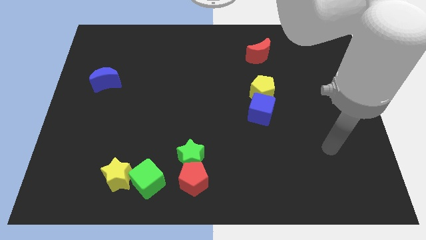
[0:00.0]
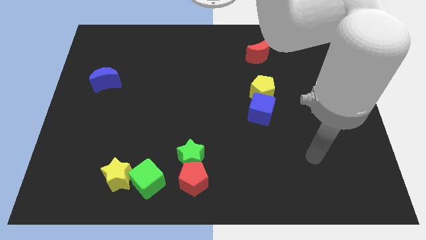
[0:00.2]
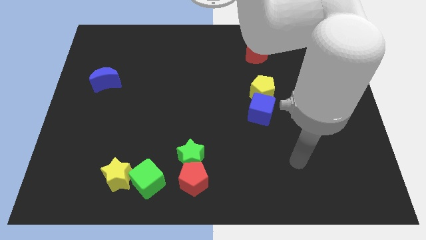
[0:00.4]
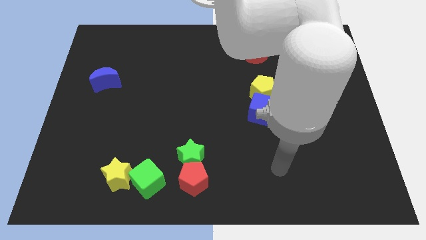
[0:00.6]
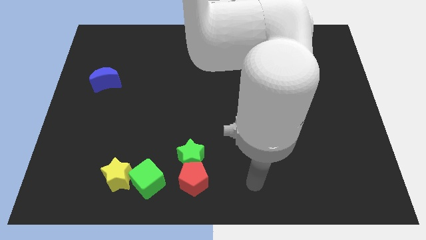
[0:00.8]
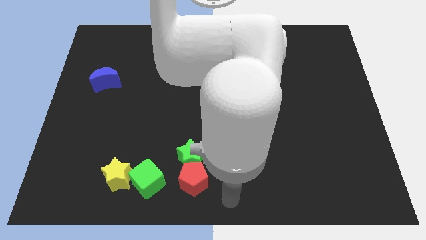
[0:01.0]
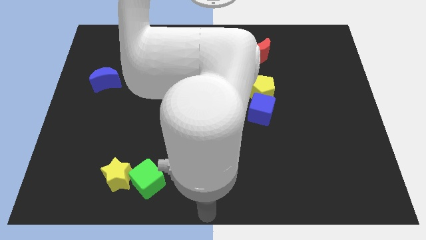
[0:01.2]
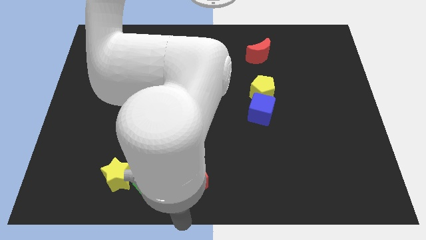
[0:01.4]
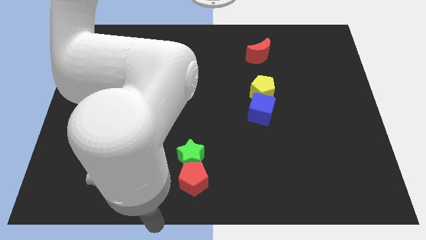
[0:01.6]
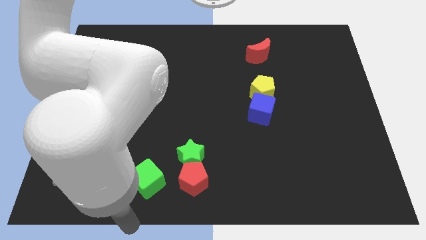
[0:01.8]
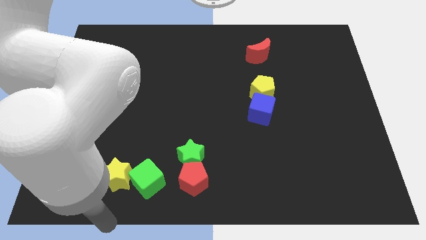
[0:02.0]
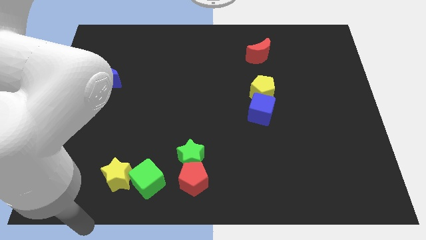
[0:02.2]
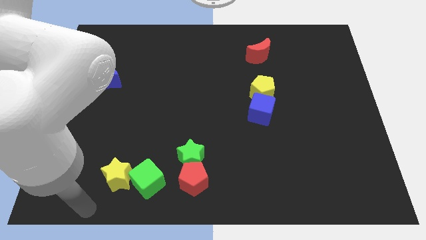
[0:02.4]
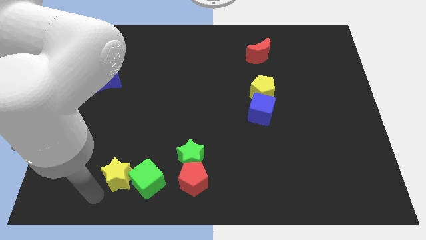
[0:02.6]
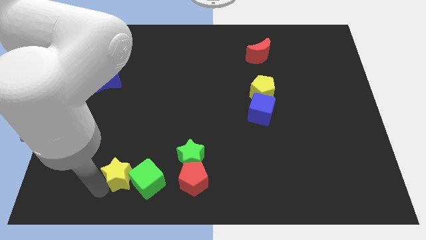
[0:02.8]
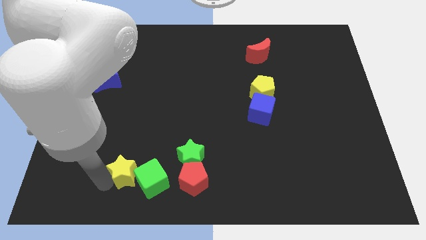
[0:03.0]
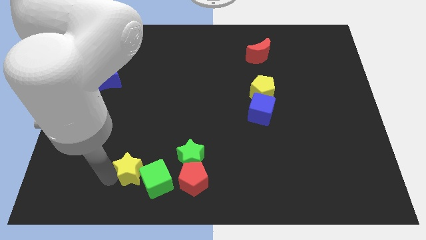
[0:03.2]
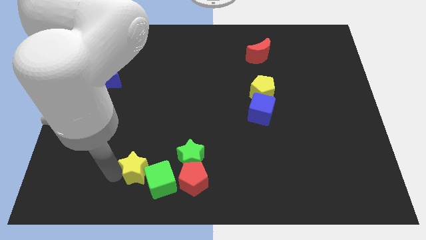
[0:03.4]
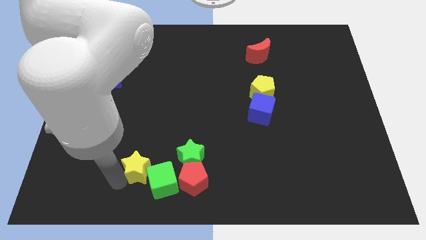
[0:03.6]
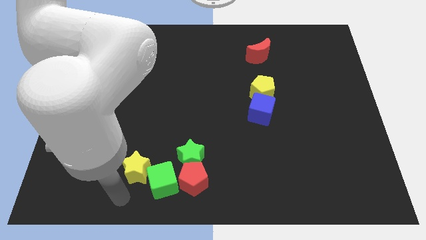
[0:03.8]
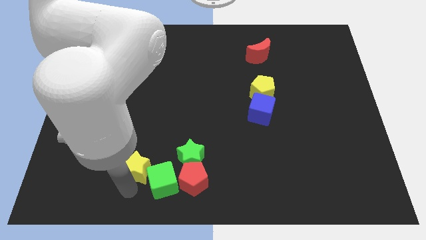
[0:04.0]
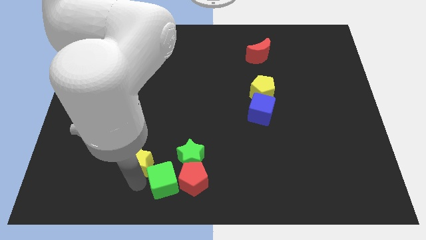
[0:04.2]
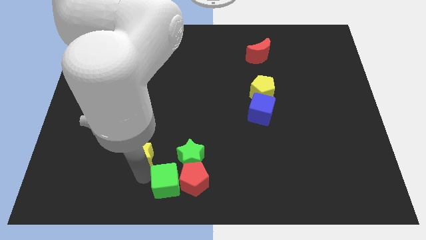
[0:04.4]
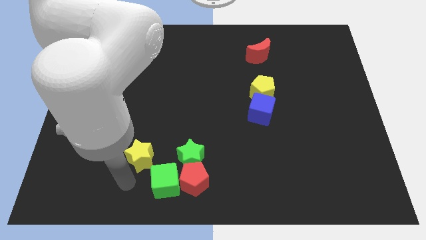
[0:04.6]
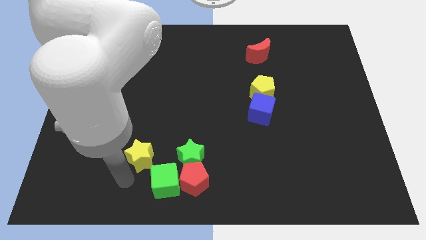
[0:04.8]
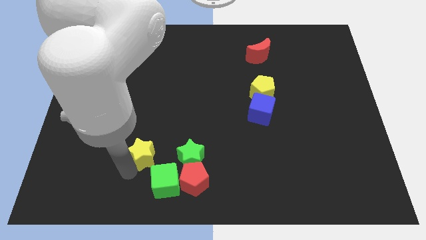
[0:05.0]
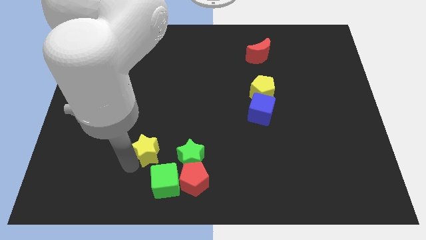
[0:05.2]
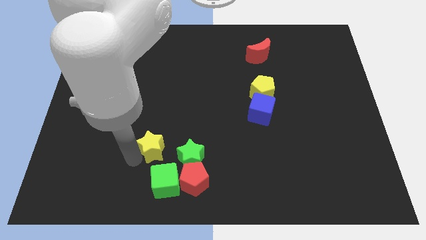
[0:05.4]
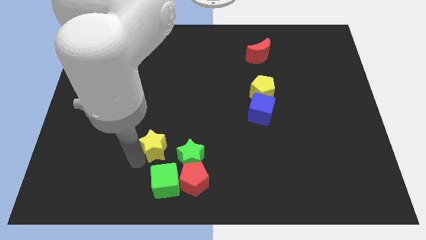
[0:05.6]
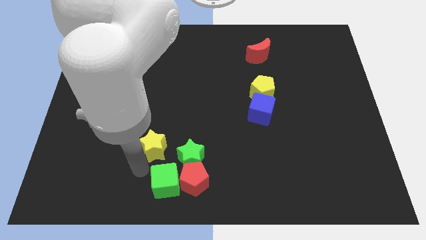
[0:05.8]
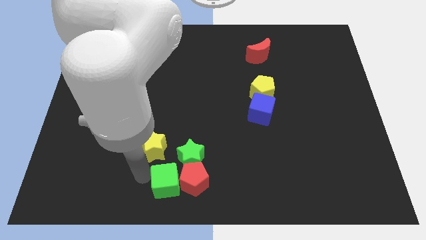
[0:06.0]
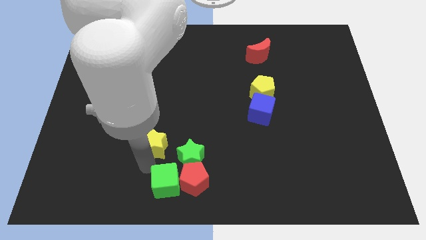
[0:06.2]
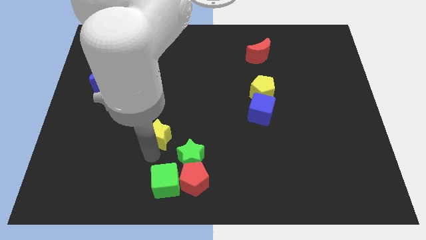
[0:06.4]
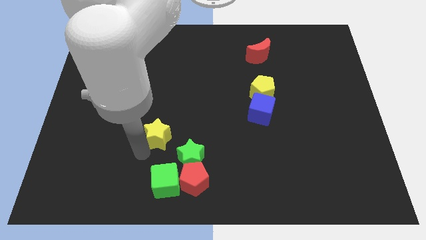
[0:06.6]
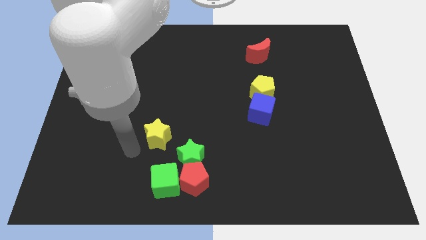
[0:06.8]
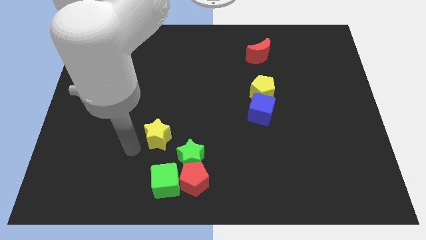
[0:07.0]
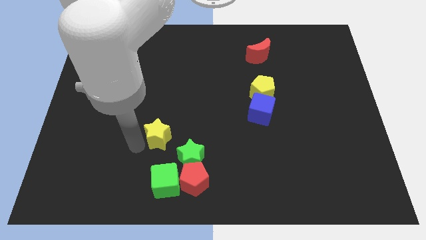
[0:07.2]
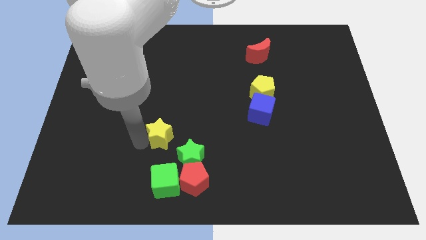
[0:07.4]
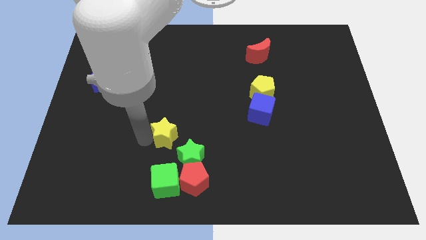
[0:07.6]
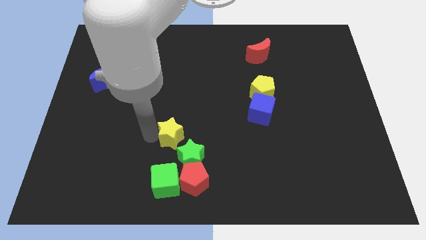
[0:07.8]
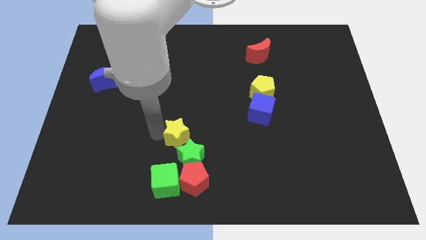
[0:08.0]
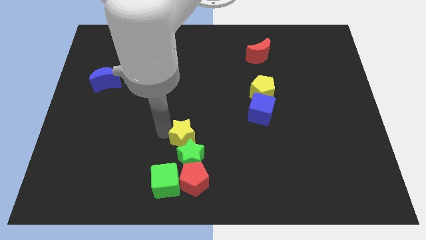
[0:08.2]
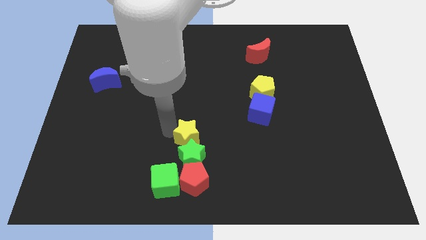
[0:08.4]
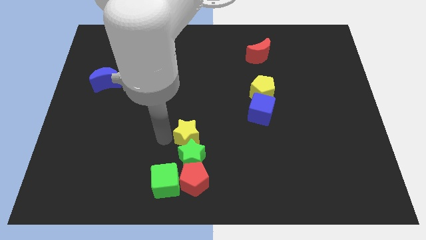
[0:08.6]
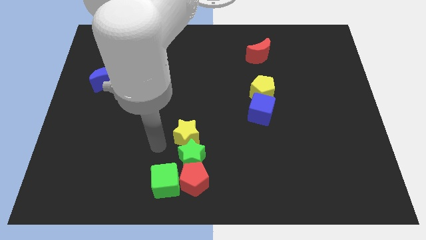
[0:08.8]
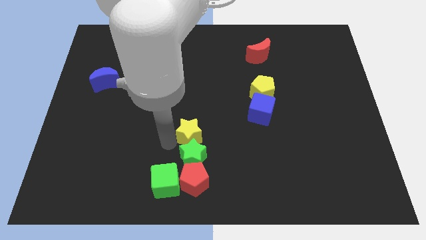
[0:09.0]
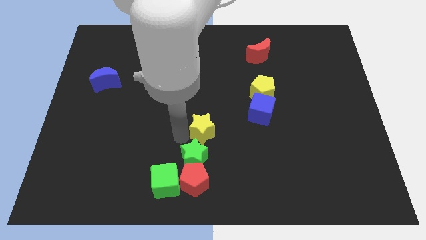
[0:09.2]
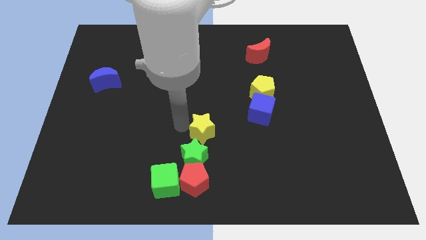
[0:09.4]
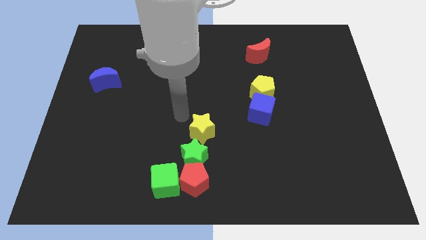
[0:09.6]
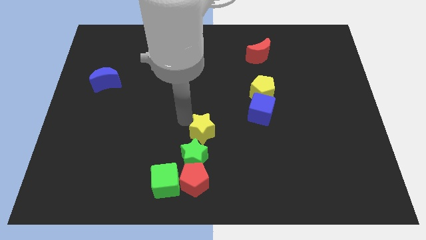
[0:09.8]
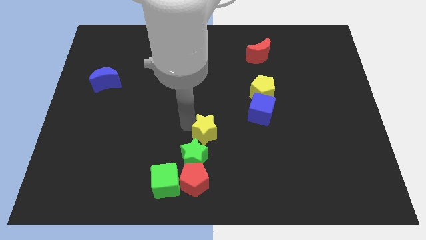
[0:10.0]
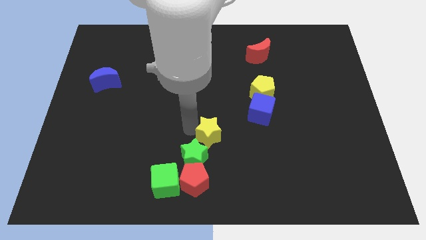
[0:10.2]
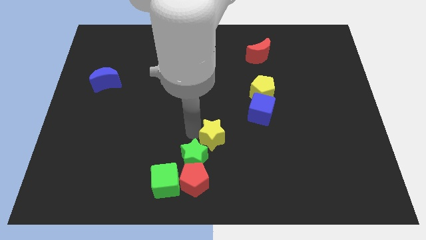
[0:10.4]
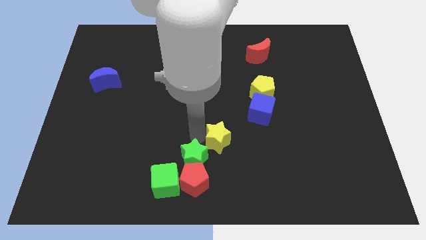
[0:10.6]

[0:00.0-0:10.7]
push the yellow star just right of the green star

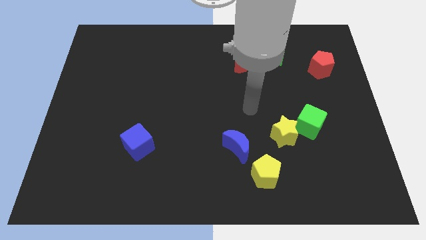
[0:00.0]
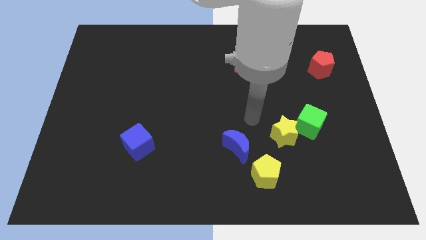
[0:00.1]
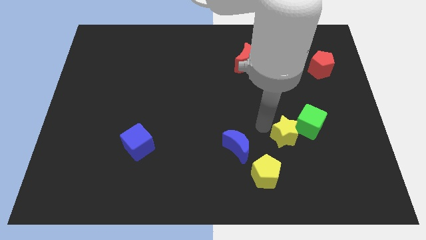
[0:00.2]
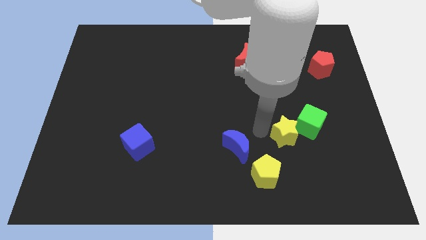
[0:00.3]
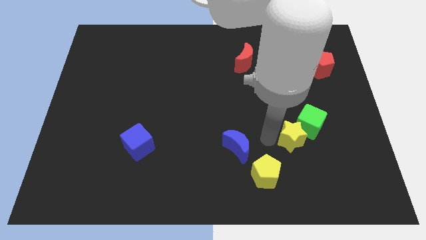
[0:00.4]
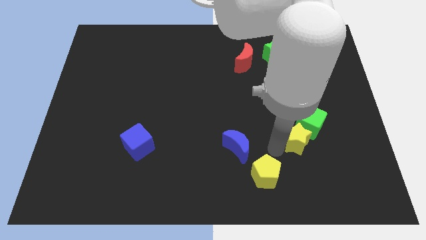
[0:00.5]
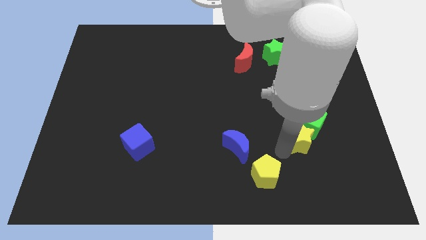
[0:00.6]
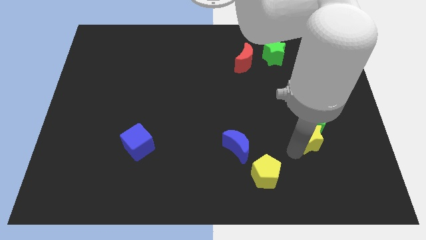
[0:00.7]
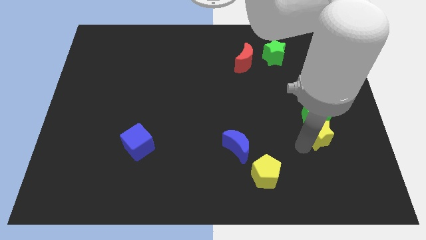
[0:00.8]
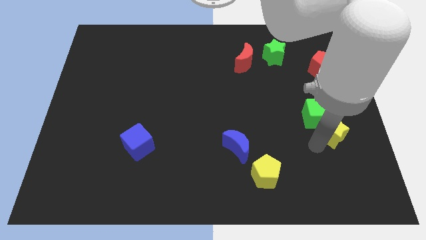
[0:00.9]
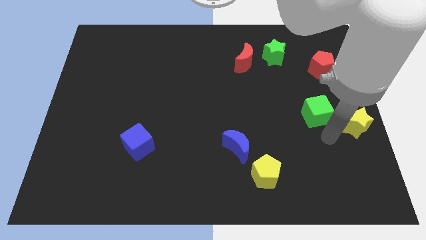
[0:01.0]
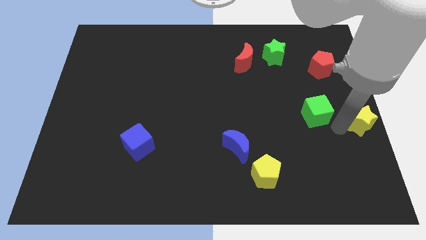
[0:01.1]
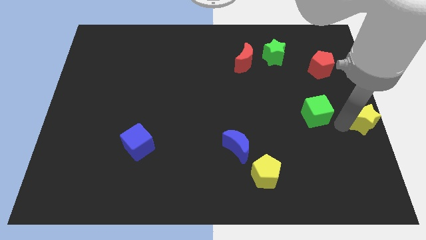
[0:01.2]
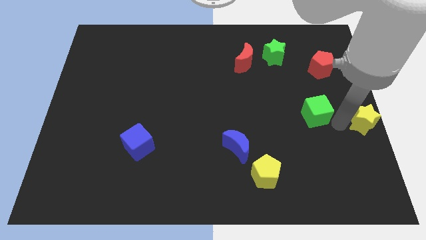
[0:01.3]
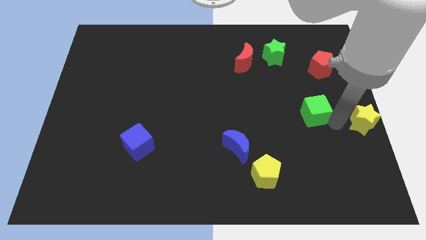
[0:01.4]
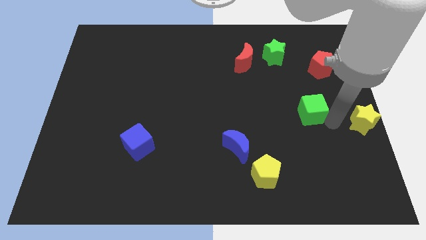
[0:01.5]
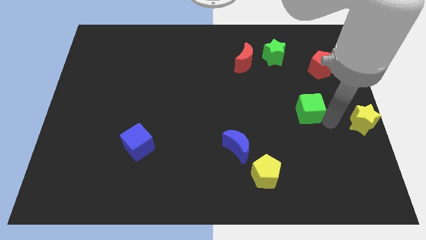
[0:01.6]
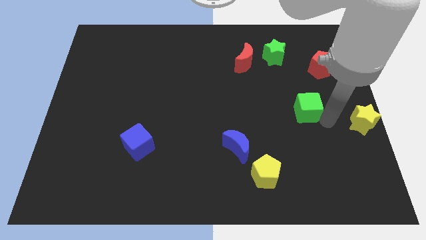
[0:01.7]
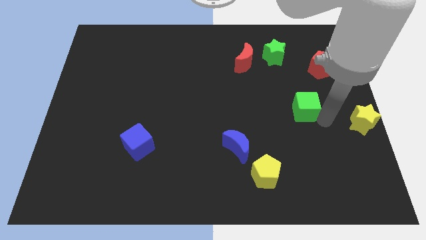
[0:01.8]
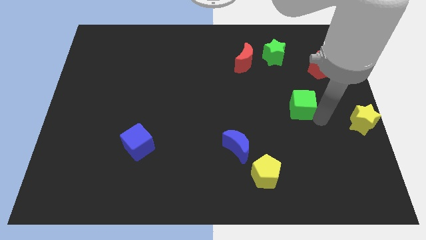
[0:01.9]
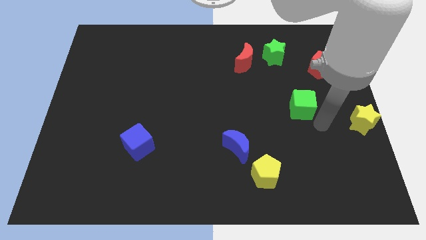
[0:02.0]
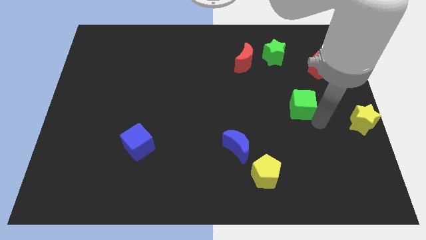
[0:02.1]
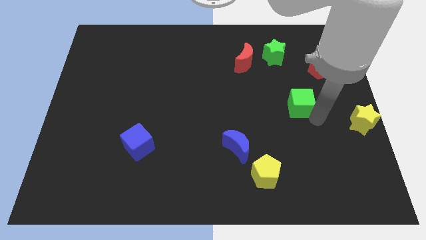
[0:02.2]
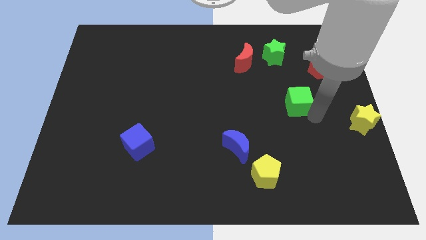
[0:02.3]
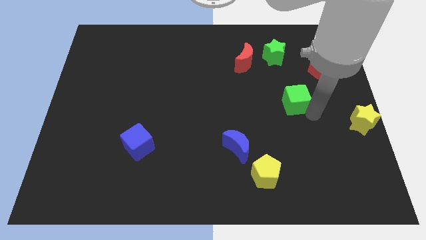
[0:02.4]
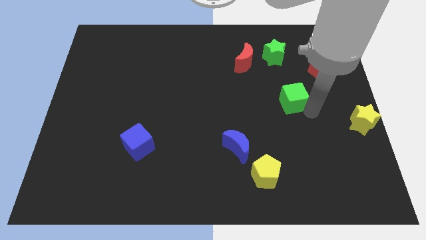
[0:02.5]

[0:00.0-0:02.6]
put the green cube to the bottom side of the green star
